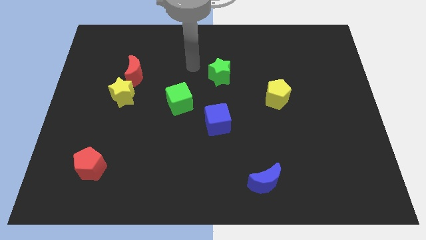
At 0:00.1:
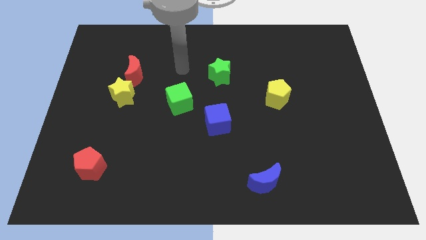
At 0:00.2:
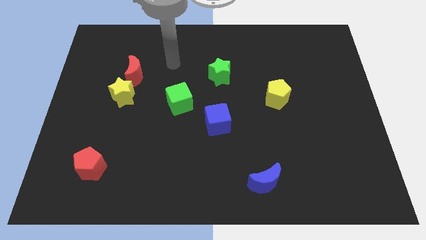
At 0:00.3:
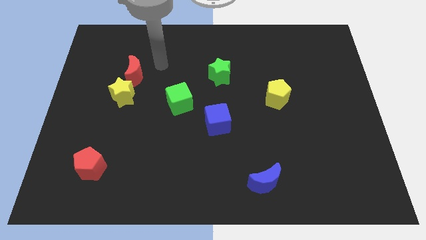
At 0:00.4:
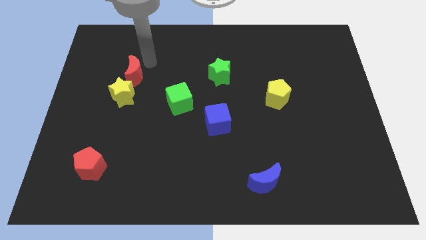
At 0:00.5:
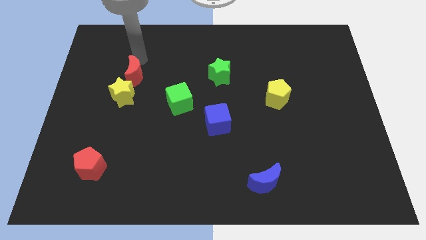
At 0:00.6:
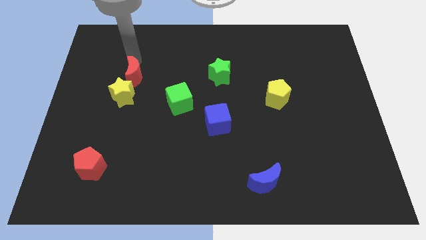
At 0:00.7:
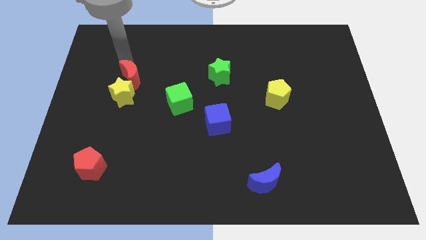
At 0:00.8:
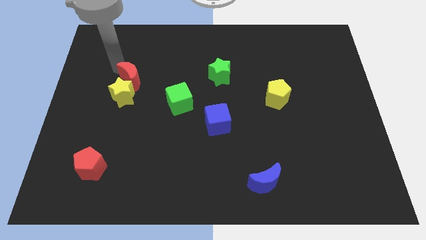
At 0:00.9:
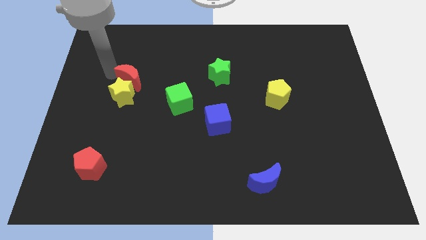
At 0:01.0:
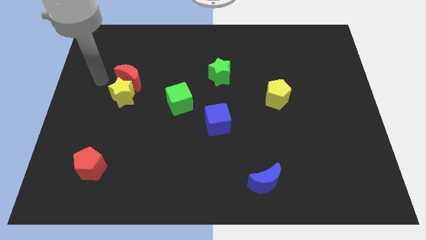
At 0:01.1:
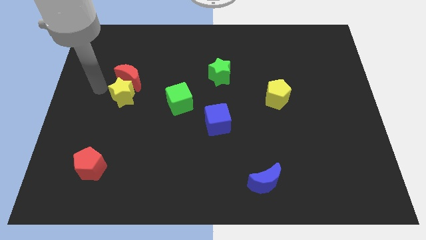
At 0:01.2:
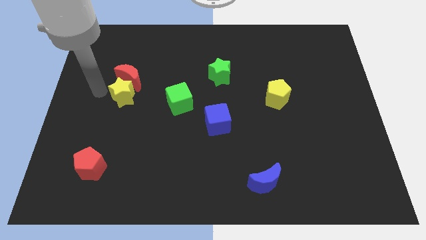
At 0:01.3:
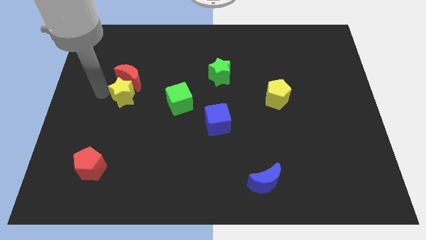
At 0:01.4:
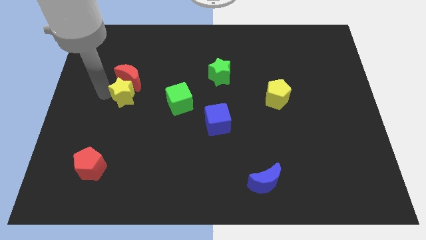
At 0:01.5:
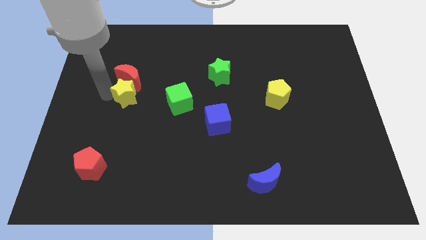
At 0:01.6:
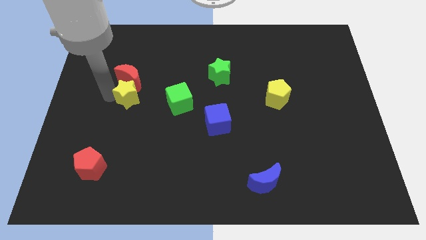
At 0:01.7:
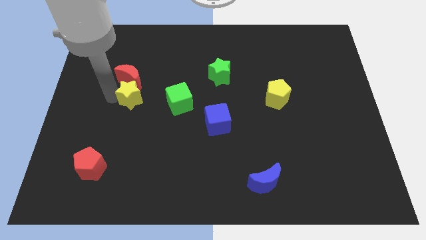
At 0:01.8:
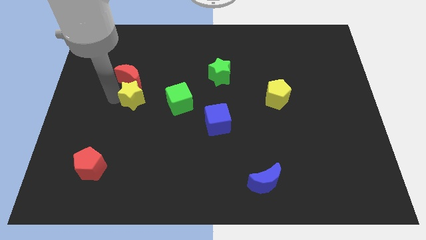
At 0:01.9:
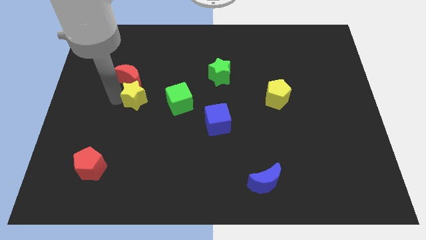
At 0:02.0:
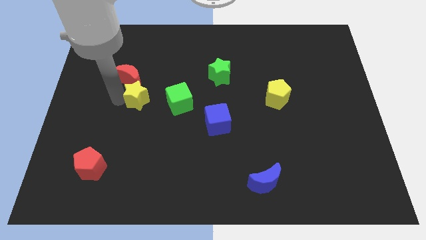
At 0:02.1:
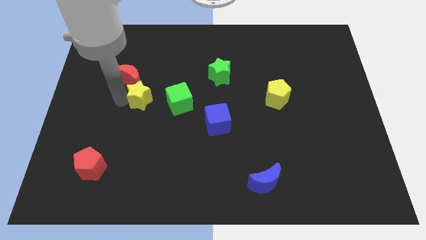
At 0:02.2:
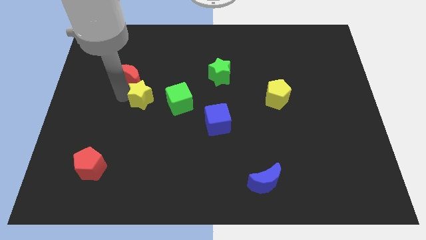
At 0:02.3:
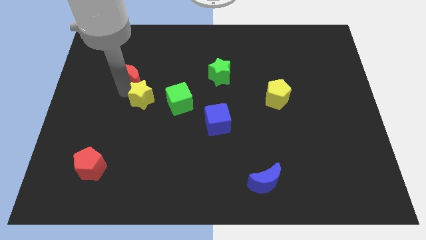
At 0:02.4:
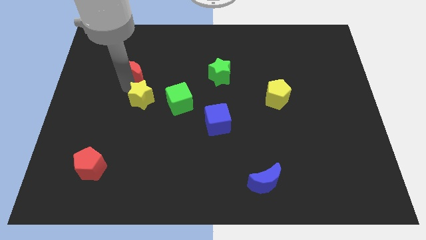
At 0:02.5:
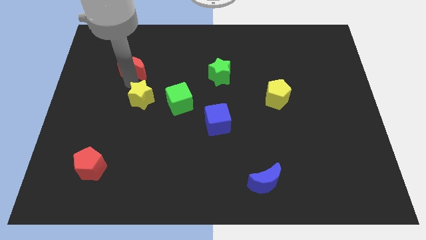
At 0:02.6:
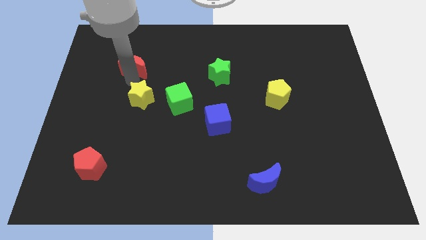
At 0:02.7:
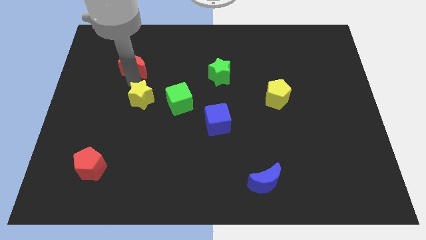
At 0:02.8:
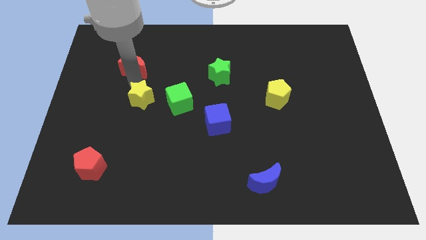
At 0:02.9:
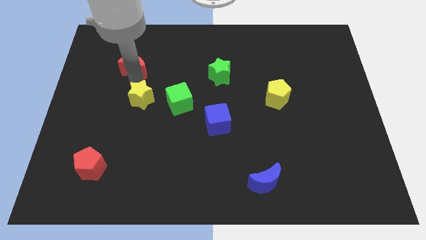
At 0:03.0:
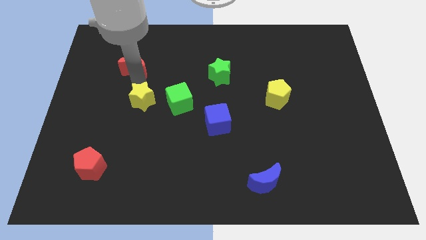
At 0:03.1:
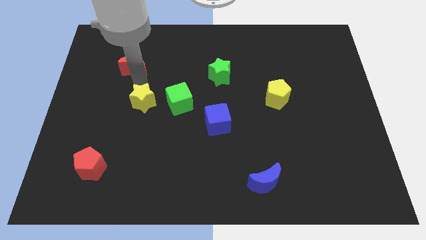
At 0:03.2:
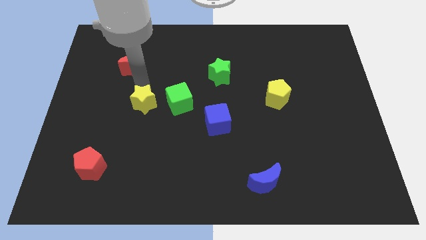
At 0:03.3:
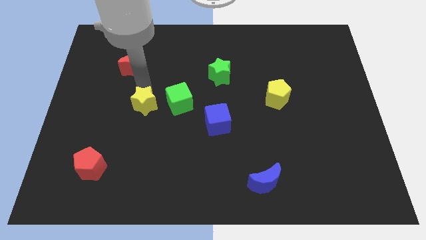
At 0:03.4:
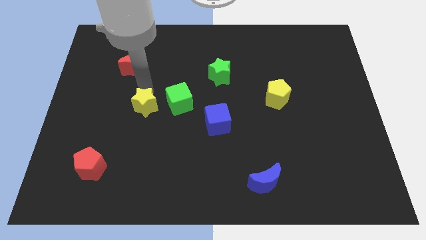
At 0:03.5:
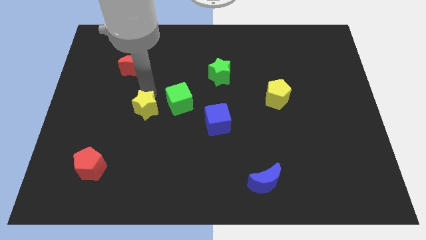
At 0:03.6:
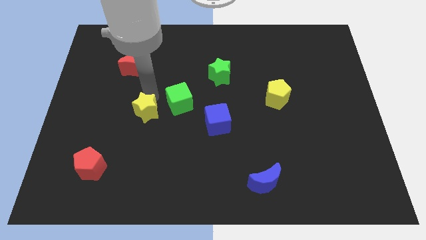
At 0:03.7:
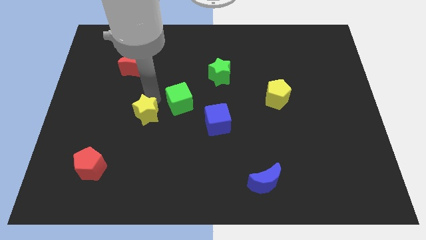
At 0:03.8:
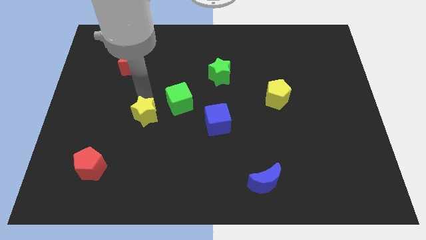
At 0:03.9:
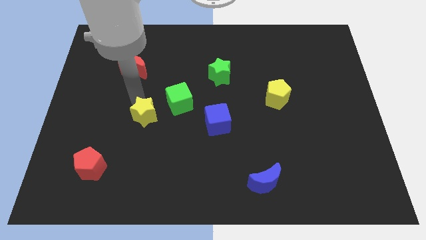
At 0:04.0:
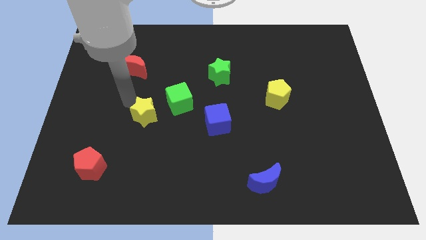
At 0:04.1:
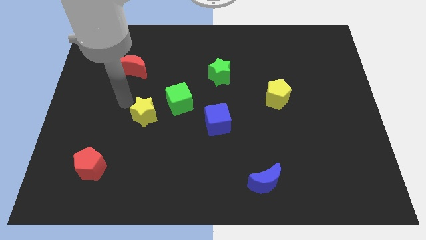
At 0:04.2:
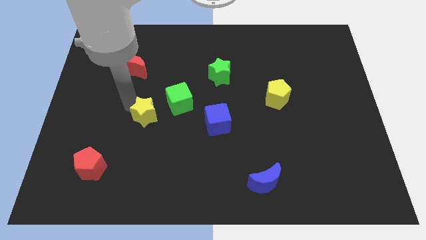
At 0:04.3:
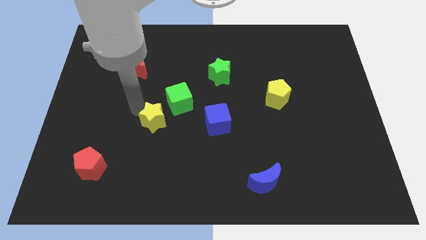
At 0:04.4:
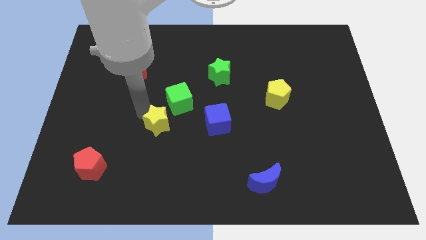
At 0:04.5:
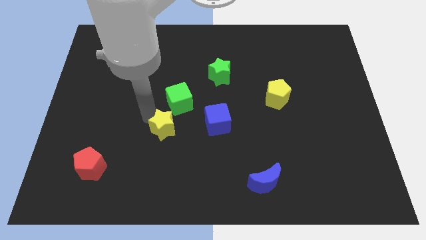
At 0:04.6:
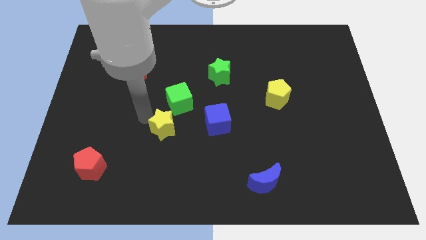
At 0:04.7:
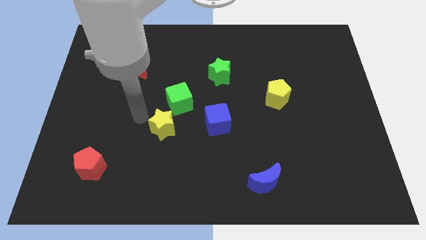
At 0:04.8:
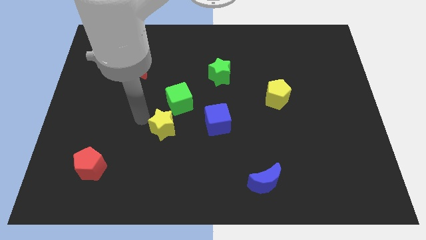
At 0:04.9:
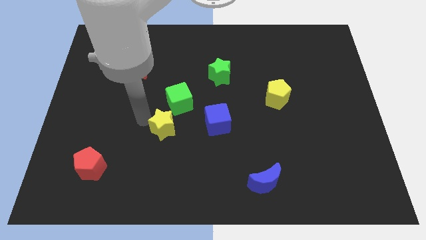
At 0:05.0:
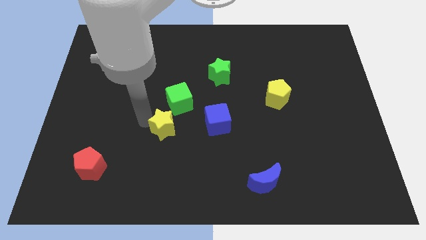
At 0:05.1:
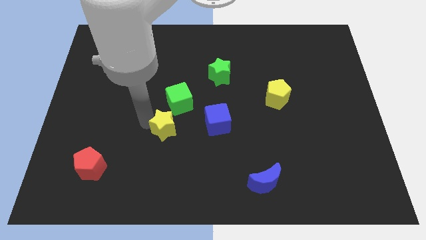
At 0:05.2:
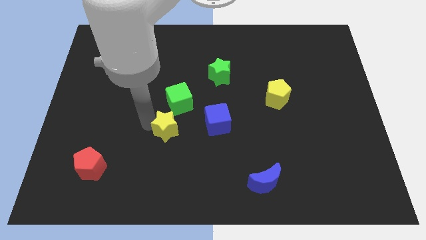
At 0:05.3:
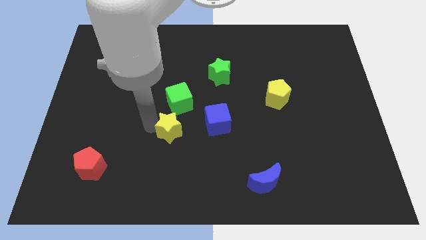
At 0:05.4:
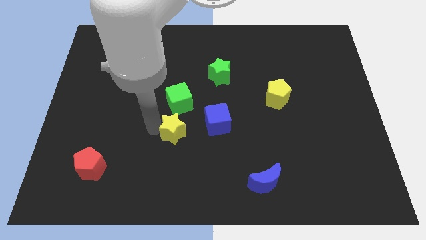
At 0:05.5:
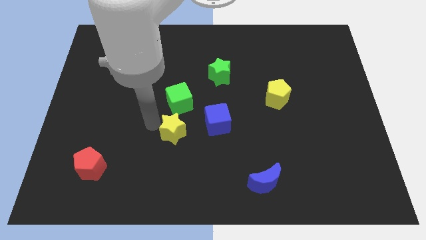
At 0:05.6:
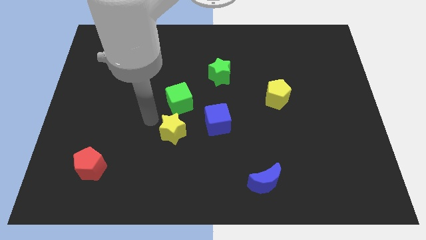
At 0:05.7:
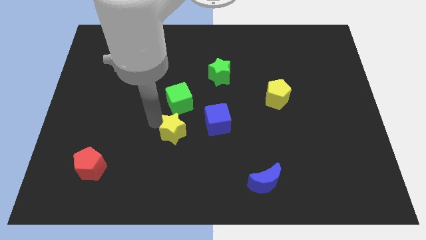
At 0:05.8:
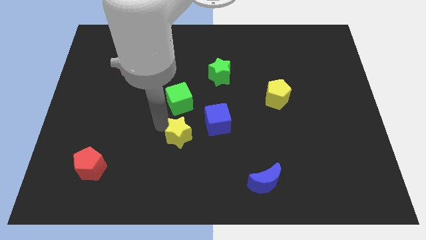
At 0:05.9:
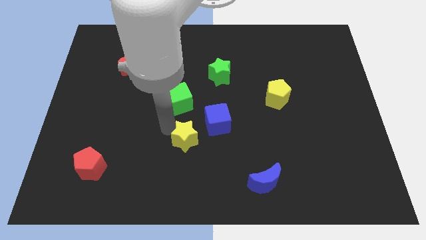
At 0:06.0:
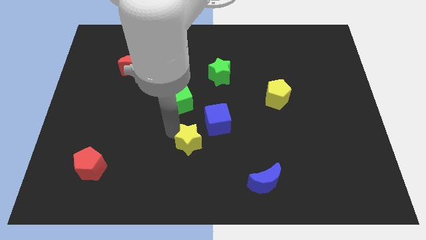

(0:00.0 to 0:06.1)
move the yellow star down and to the right

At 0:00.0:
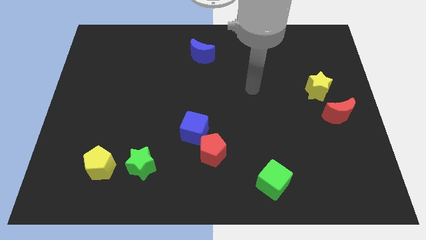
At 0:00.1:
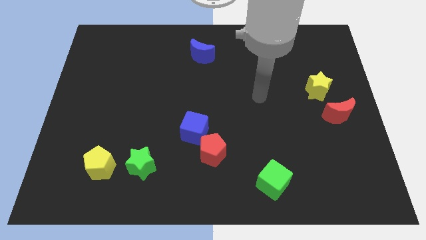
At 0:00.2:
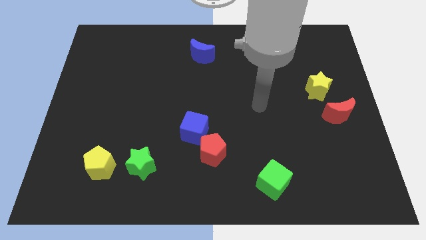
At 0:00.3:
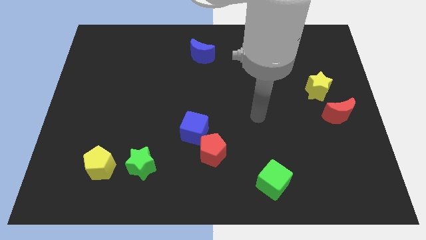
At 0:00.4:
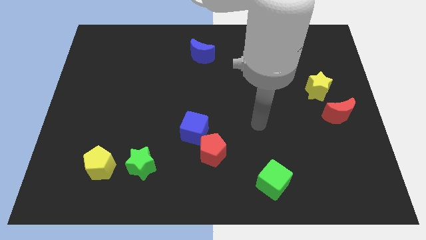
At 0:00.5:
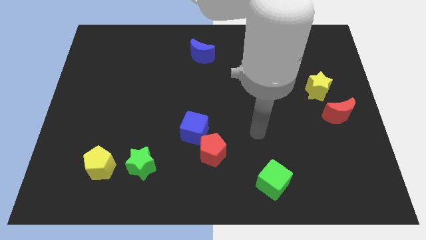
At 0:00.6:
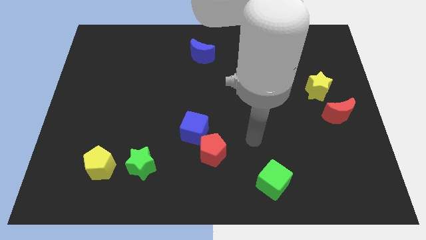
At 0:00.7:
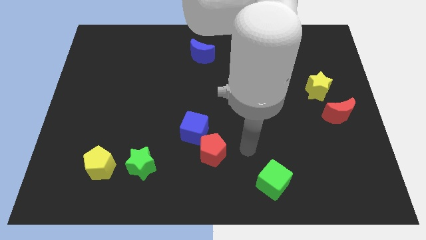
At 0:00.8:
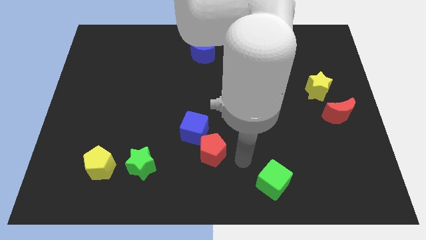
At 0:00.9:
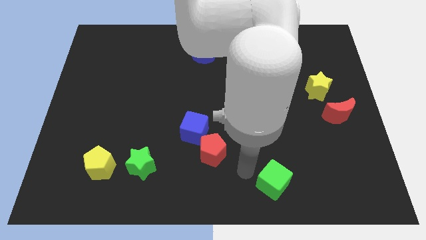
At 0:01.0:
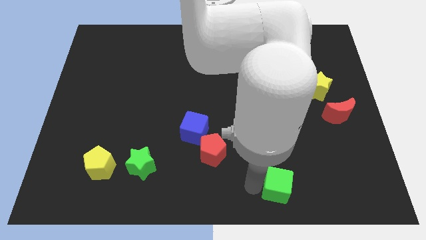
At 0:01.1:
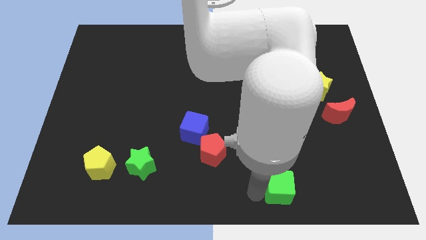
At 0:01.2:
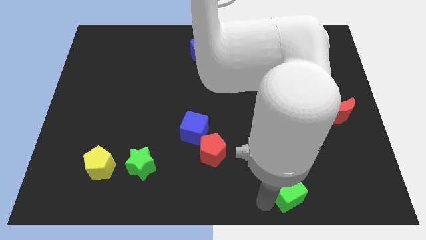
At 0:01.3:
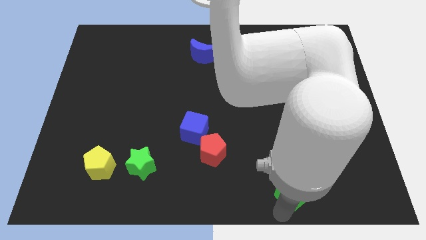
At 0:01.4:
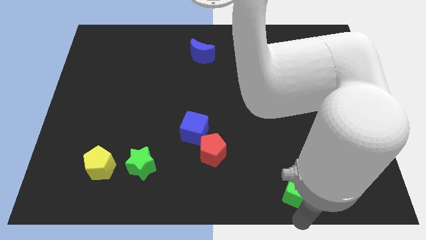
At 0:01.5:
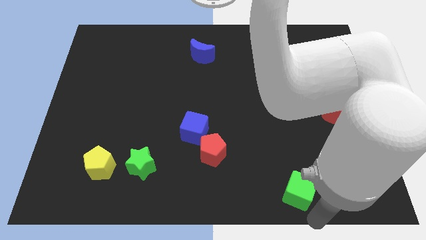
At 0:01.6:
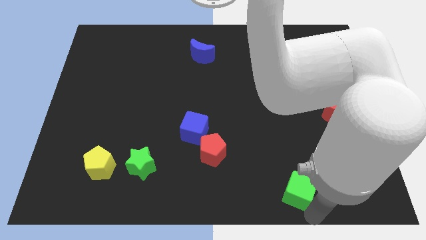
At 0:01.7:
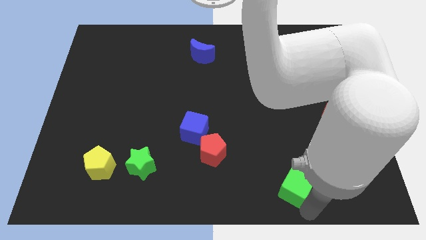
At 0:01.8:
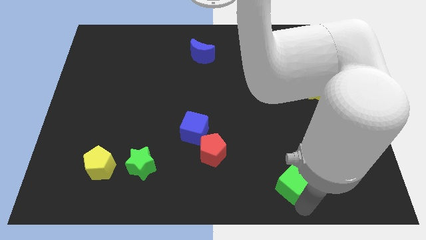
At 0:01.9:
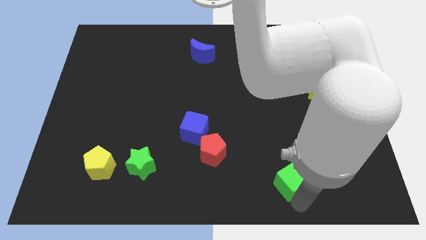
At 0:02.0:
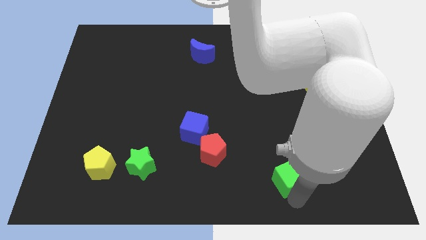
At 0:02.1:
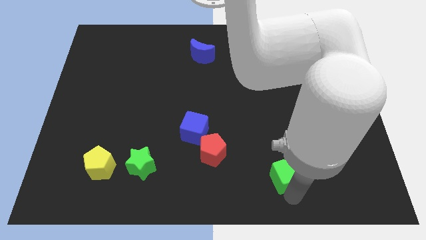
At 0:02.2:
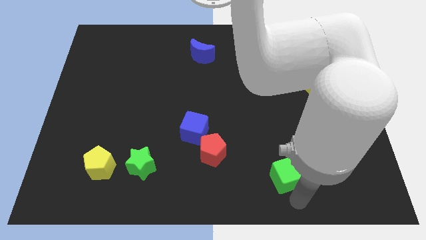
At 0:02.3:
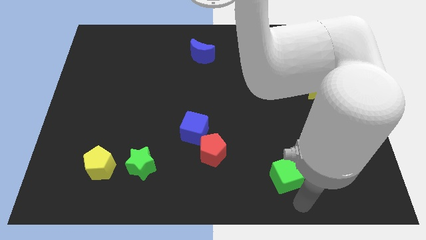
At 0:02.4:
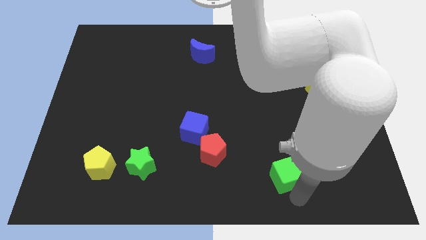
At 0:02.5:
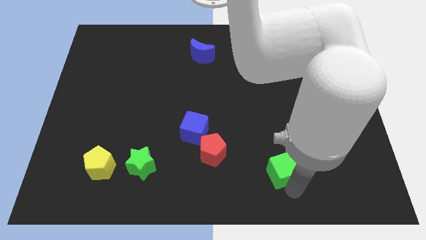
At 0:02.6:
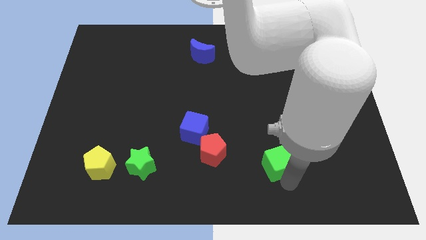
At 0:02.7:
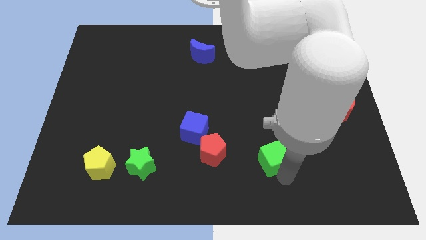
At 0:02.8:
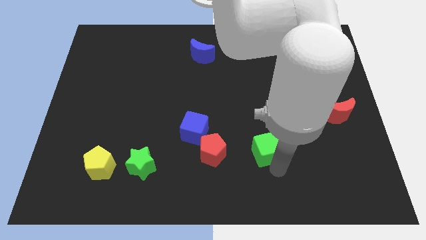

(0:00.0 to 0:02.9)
push the green cube upwards slightly
